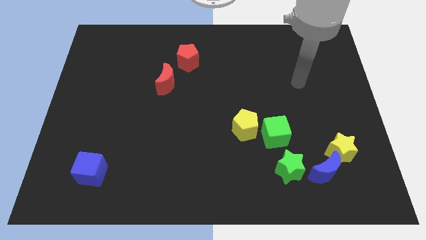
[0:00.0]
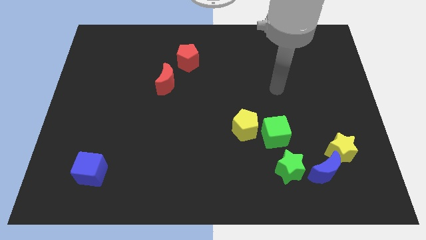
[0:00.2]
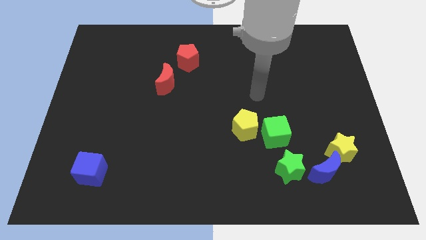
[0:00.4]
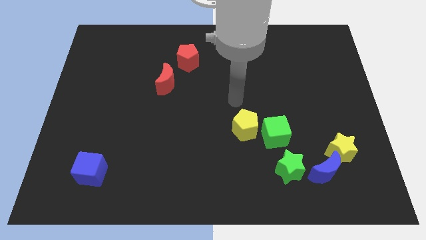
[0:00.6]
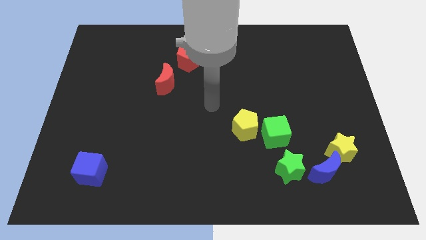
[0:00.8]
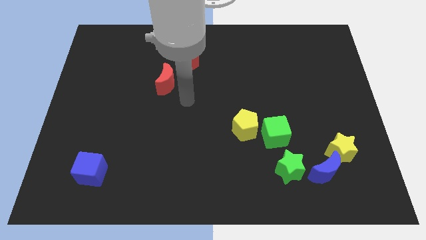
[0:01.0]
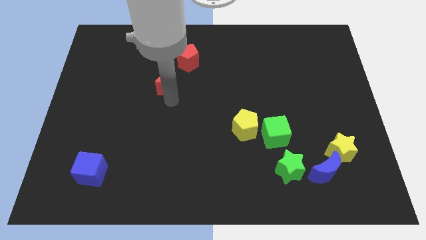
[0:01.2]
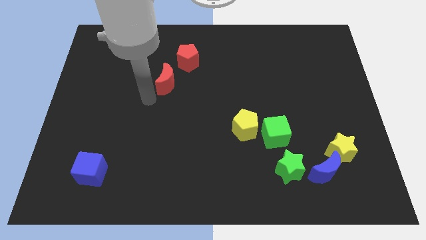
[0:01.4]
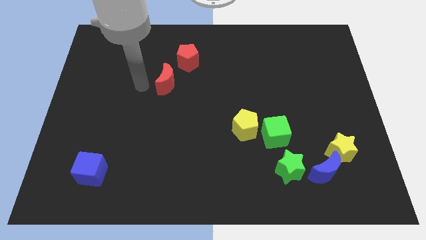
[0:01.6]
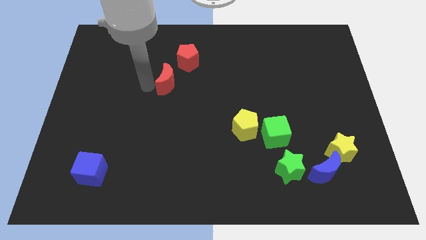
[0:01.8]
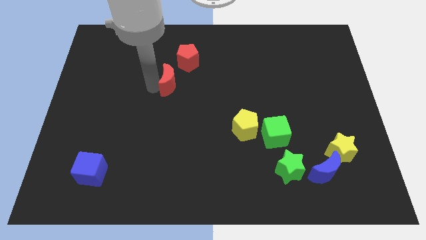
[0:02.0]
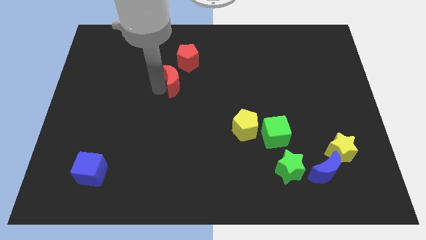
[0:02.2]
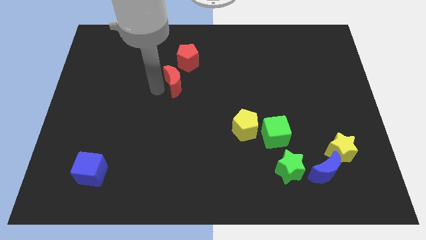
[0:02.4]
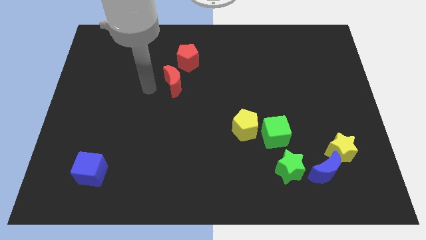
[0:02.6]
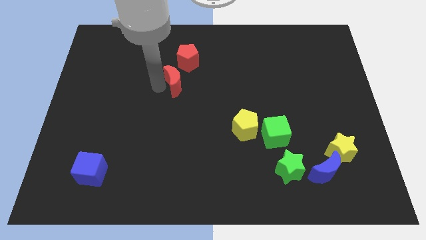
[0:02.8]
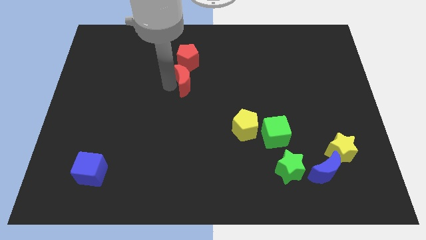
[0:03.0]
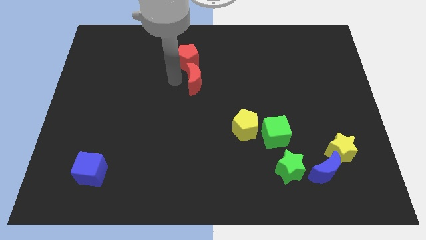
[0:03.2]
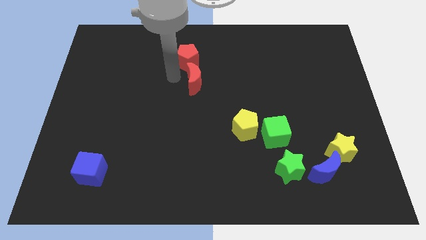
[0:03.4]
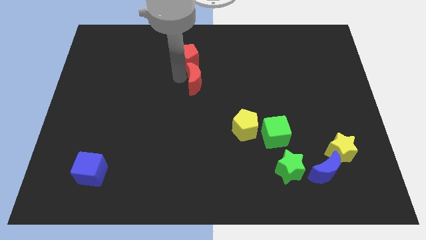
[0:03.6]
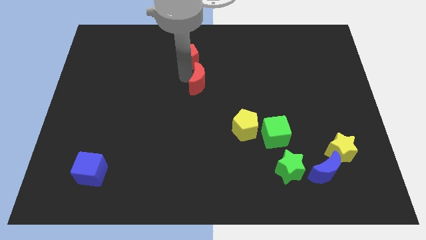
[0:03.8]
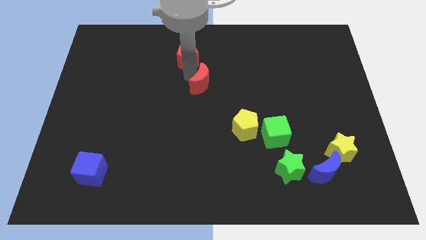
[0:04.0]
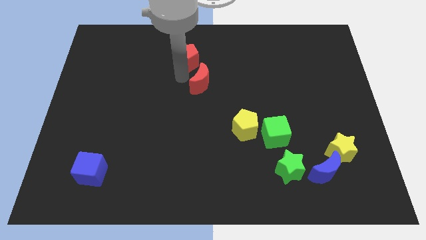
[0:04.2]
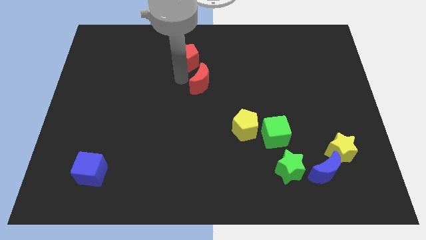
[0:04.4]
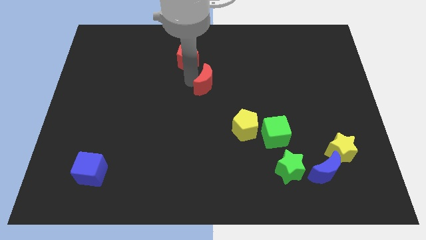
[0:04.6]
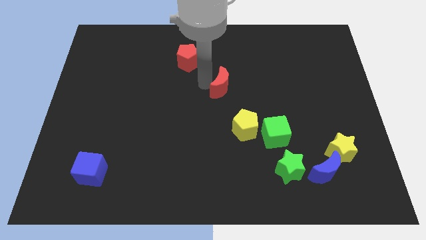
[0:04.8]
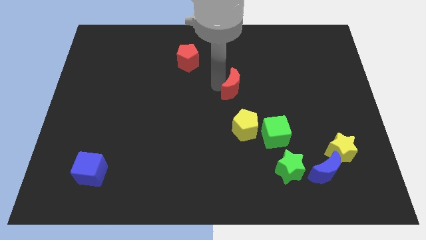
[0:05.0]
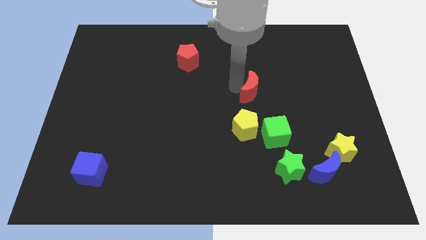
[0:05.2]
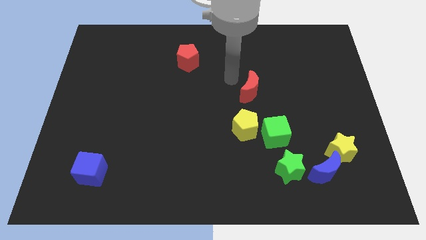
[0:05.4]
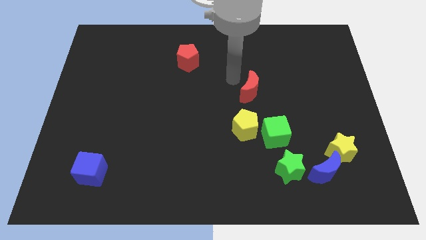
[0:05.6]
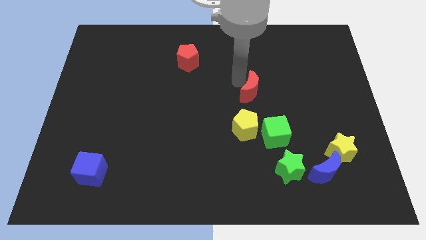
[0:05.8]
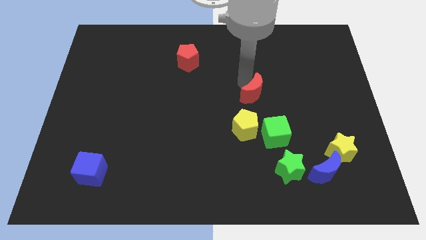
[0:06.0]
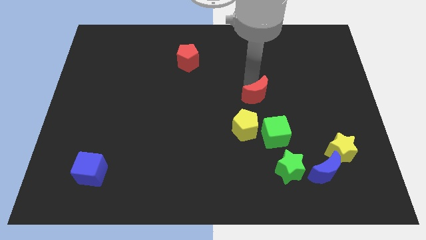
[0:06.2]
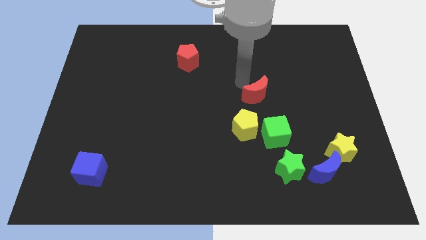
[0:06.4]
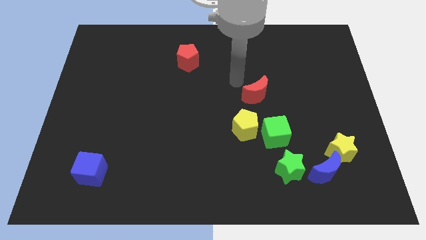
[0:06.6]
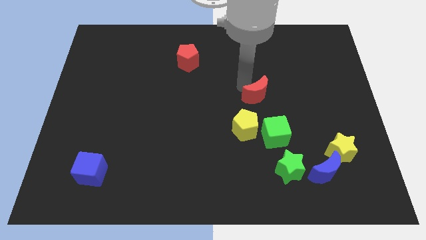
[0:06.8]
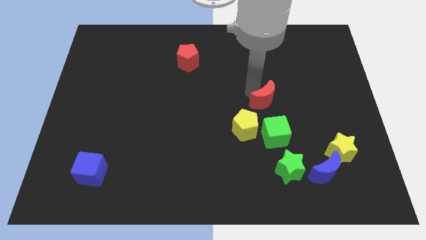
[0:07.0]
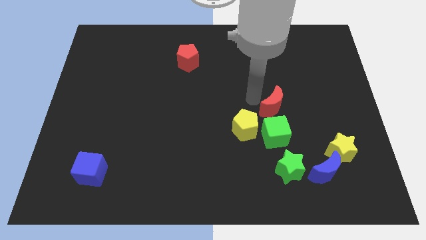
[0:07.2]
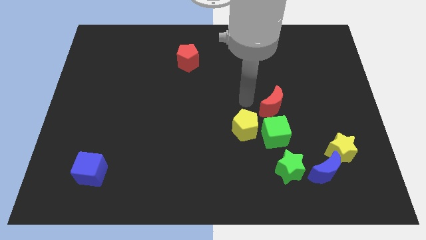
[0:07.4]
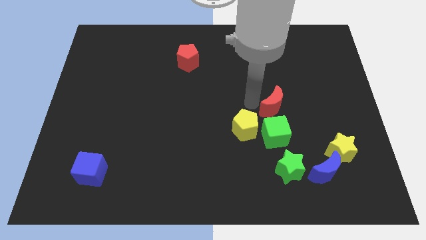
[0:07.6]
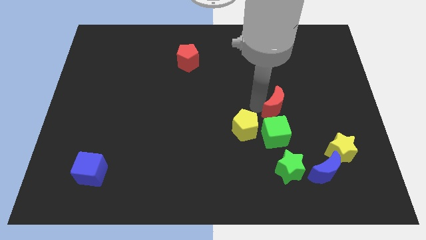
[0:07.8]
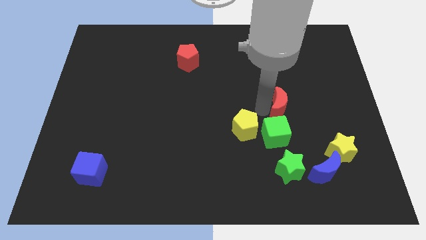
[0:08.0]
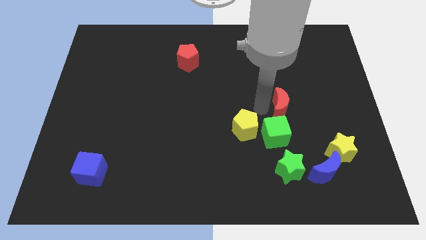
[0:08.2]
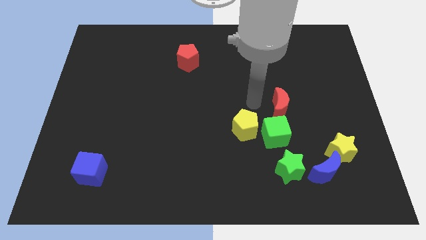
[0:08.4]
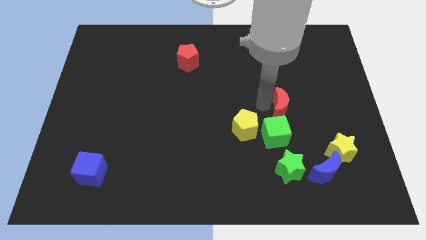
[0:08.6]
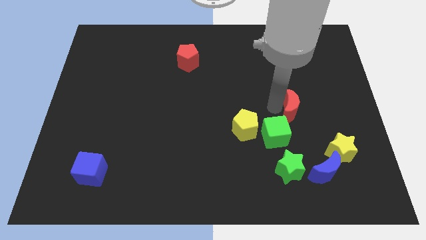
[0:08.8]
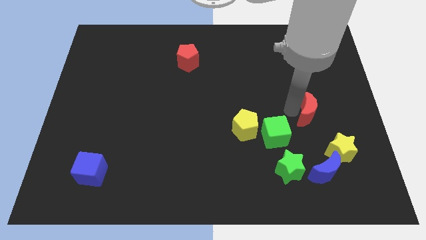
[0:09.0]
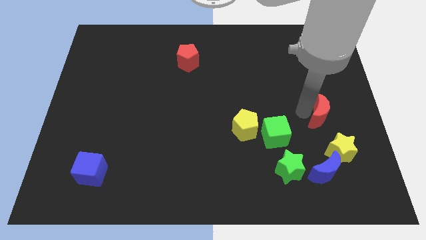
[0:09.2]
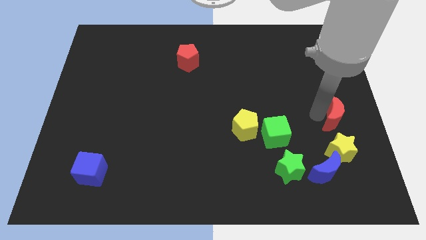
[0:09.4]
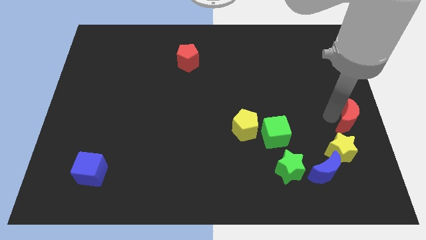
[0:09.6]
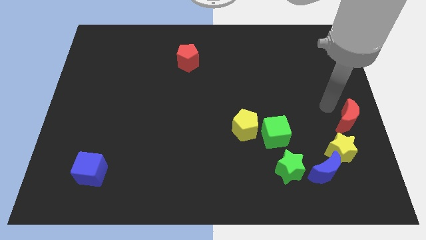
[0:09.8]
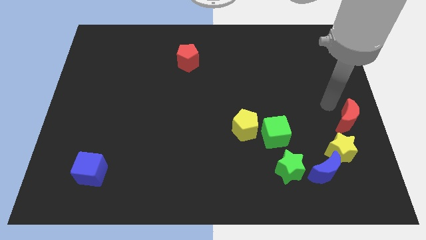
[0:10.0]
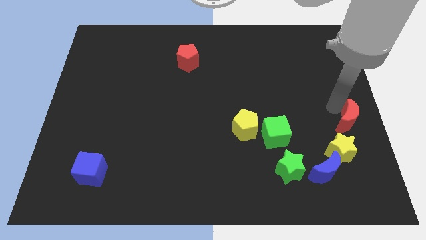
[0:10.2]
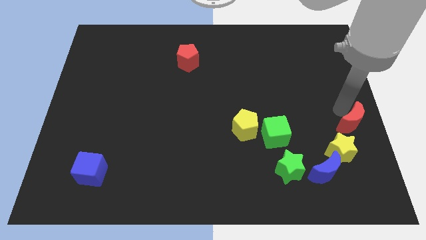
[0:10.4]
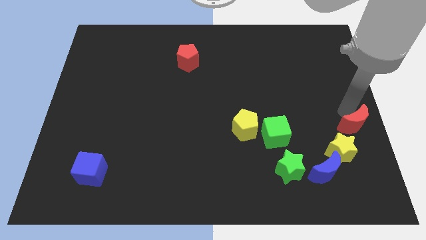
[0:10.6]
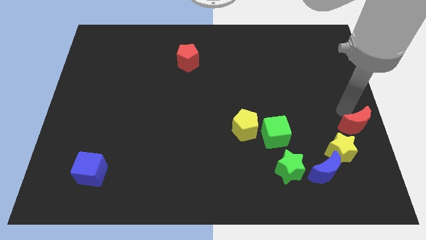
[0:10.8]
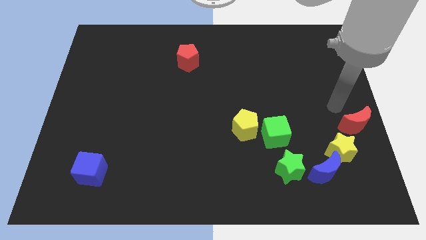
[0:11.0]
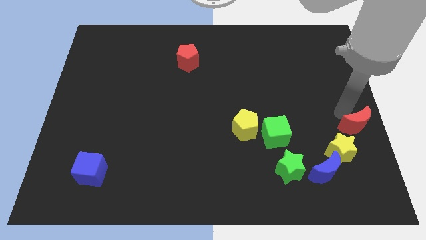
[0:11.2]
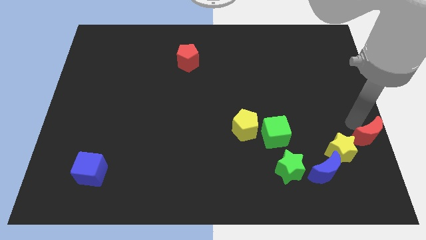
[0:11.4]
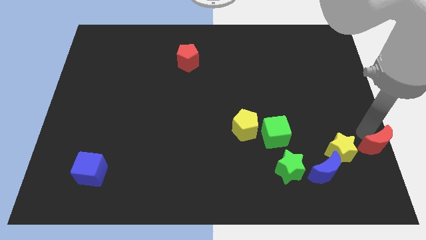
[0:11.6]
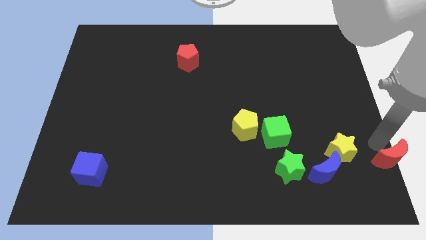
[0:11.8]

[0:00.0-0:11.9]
slide the red moon to the lower right corner

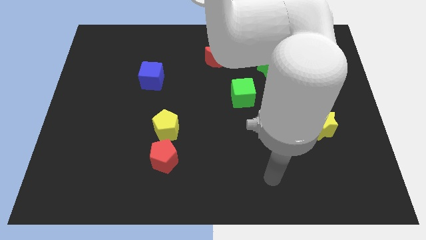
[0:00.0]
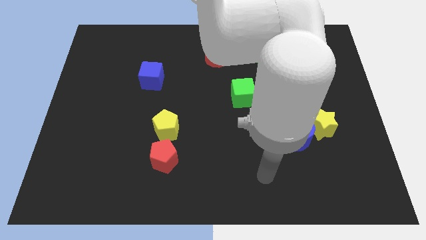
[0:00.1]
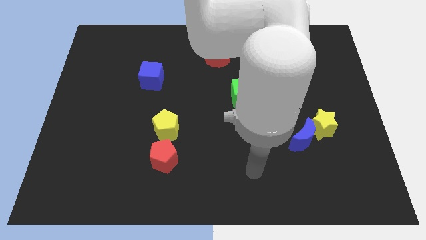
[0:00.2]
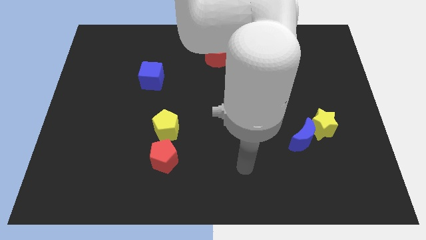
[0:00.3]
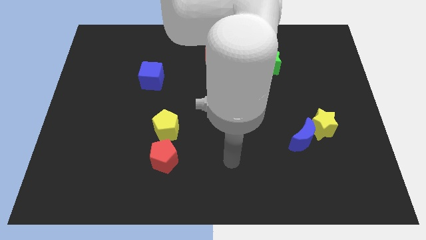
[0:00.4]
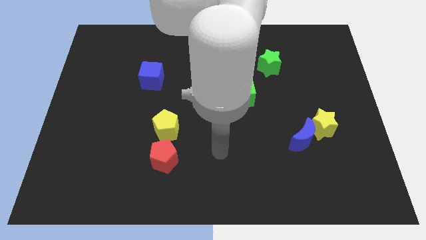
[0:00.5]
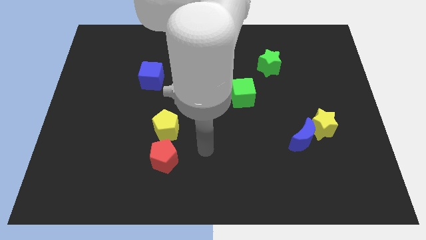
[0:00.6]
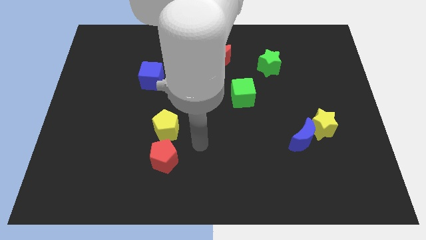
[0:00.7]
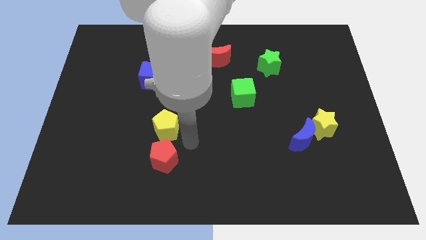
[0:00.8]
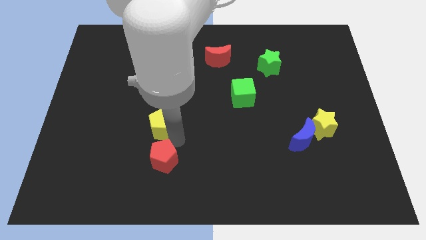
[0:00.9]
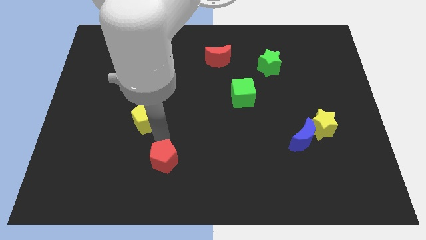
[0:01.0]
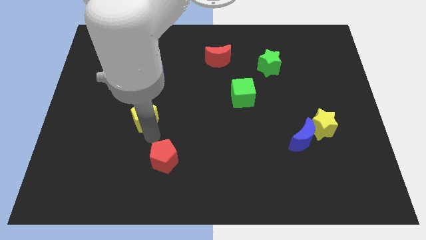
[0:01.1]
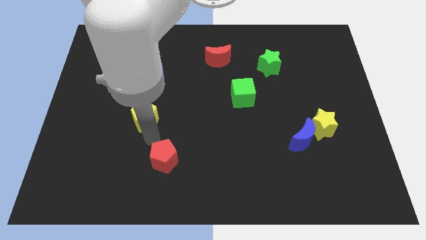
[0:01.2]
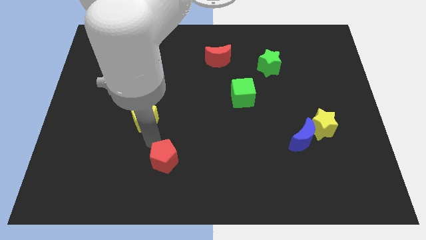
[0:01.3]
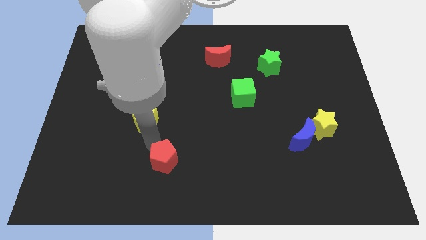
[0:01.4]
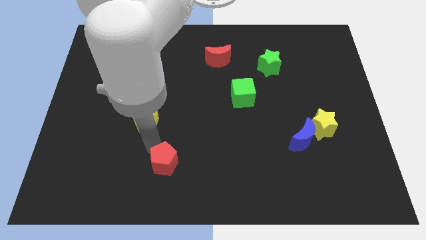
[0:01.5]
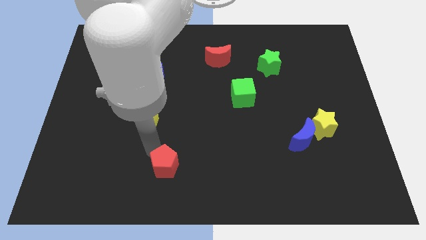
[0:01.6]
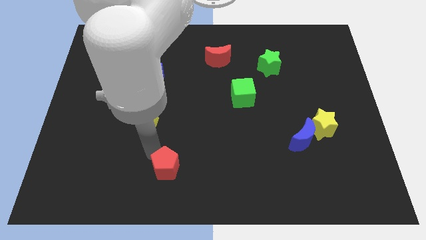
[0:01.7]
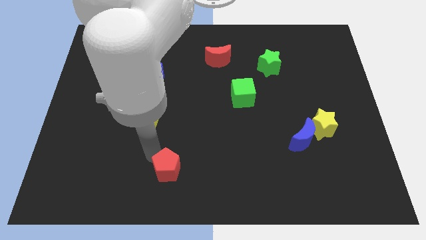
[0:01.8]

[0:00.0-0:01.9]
put the red pentagon to the bottom side

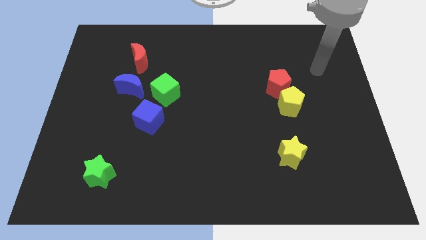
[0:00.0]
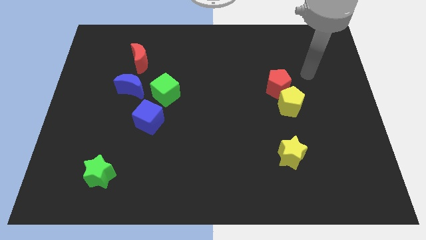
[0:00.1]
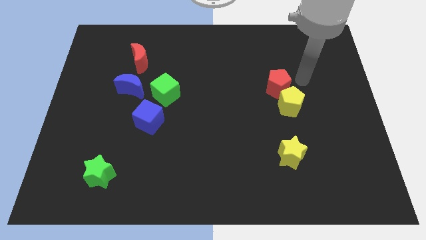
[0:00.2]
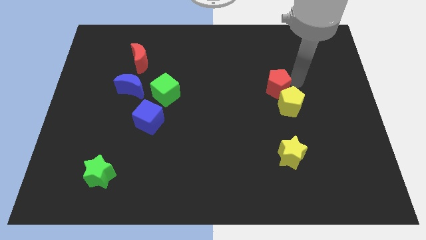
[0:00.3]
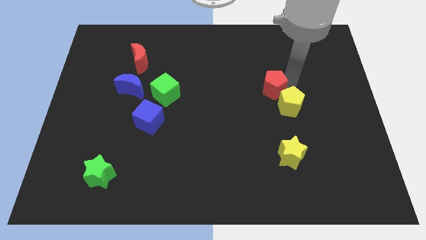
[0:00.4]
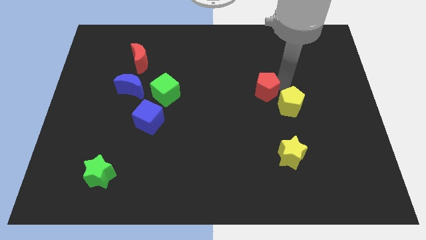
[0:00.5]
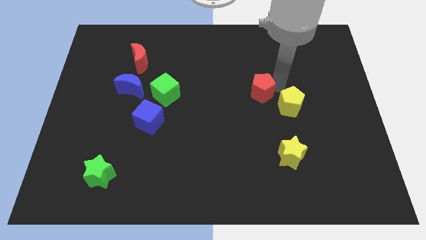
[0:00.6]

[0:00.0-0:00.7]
push the red pentagon to the middle
